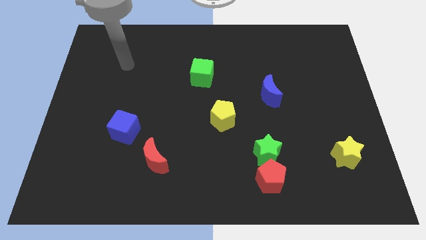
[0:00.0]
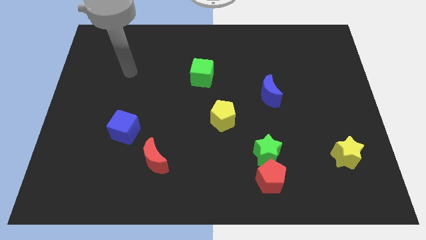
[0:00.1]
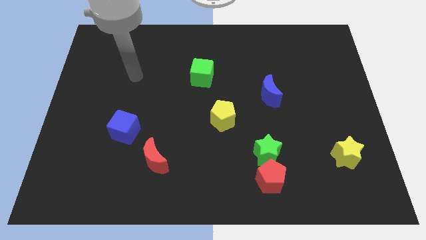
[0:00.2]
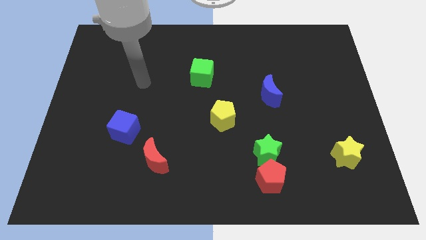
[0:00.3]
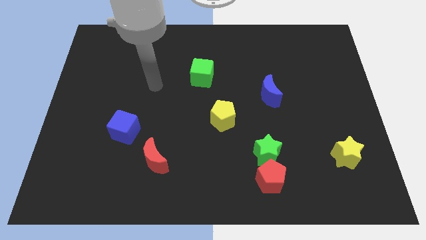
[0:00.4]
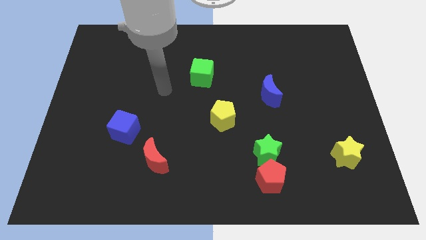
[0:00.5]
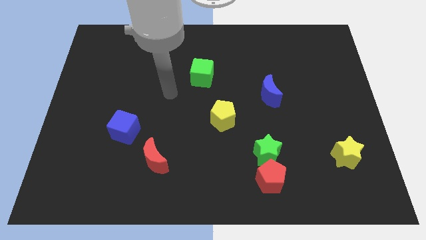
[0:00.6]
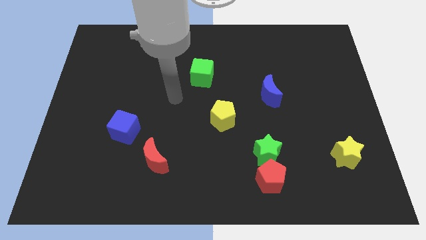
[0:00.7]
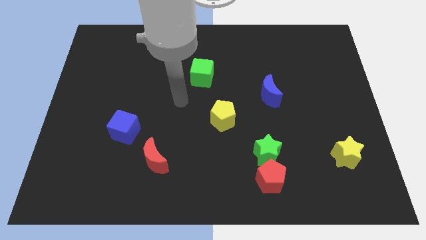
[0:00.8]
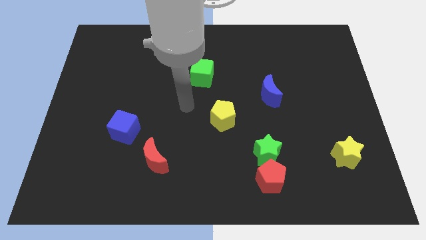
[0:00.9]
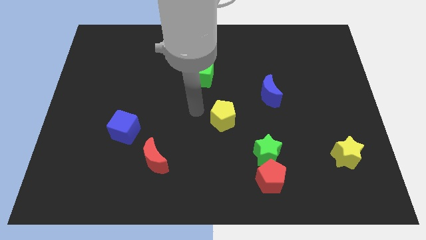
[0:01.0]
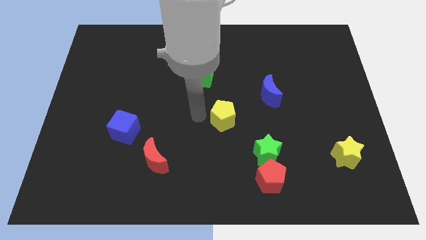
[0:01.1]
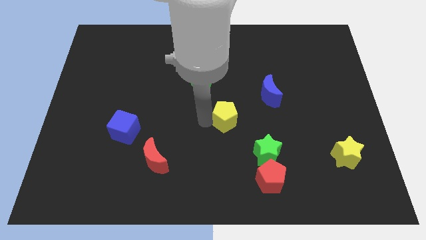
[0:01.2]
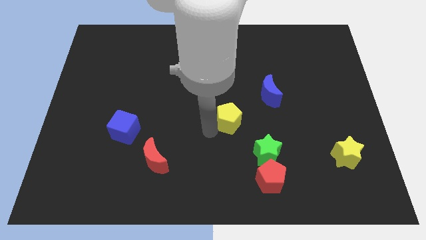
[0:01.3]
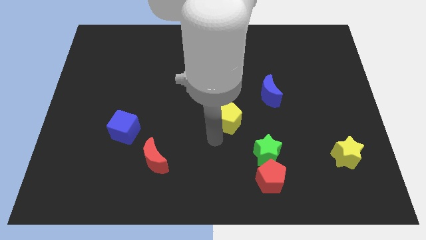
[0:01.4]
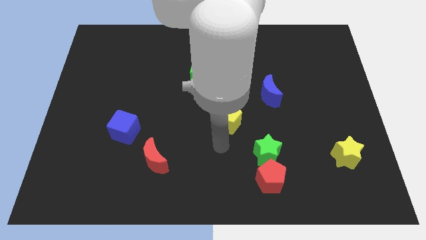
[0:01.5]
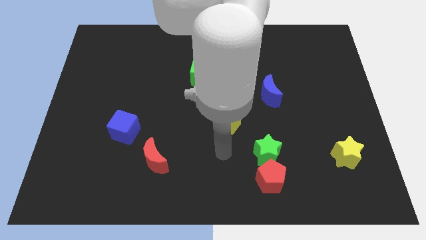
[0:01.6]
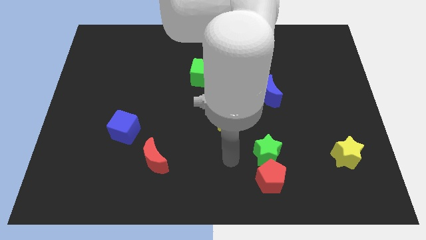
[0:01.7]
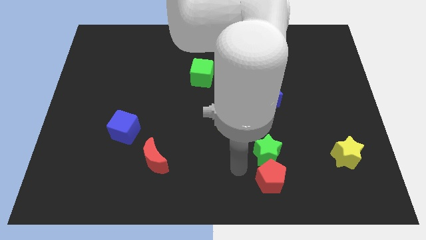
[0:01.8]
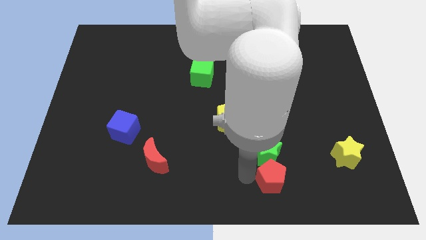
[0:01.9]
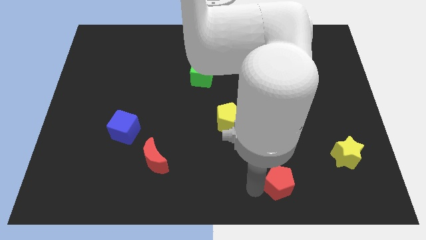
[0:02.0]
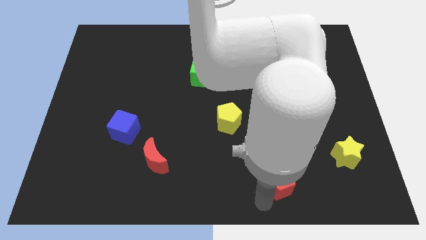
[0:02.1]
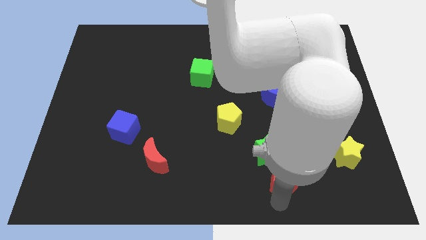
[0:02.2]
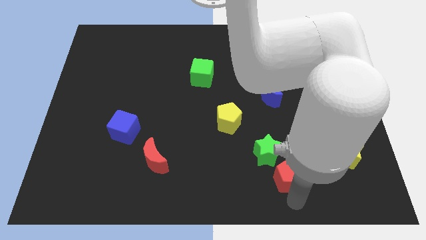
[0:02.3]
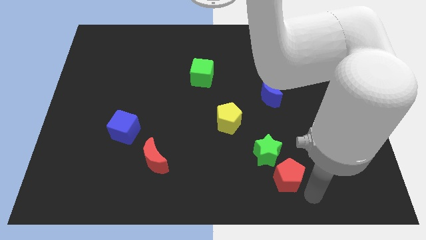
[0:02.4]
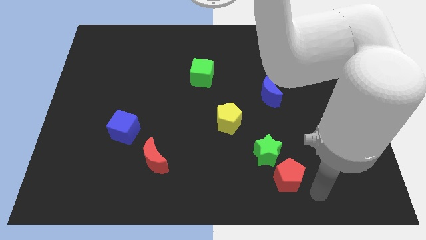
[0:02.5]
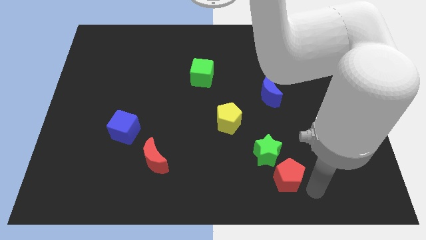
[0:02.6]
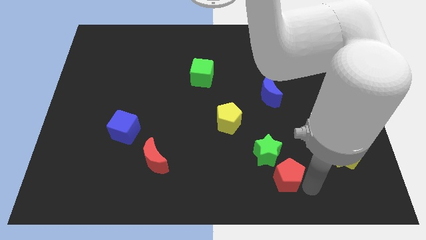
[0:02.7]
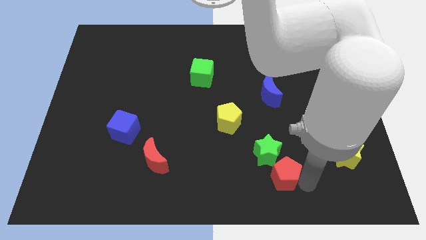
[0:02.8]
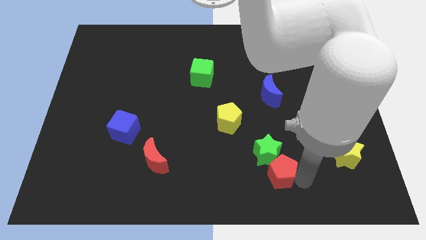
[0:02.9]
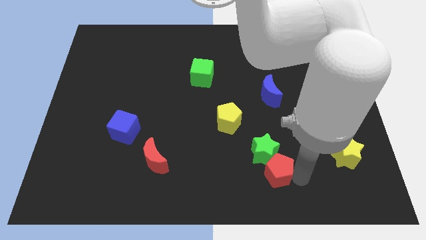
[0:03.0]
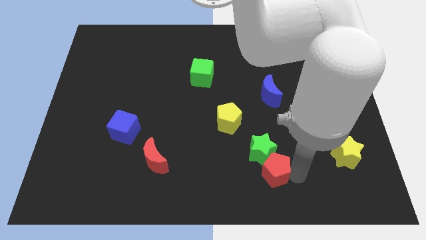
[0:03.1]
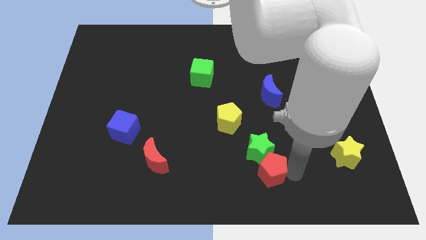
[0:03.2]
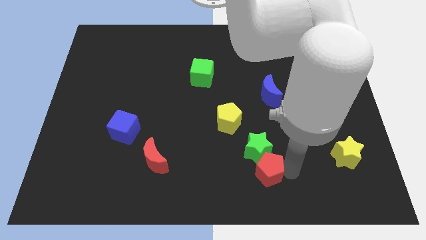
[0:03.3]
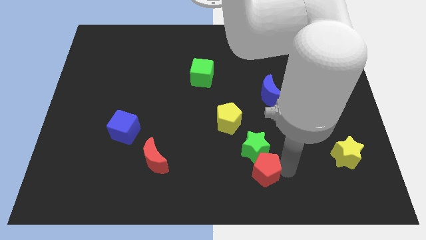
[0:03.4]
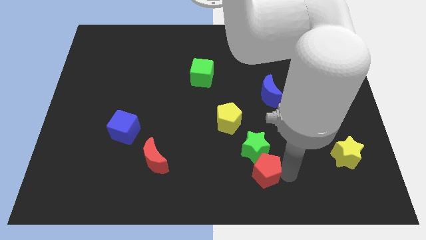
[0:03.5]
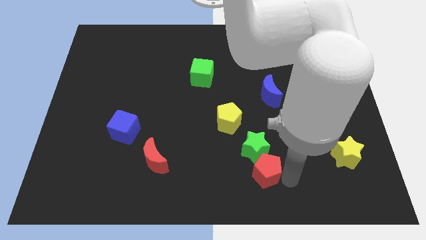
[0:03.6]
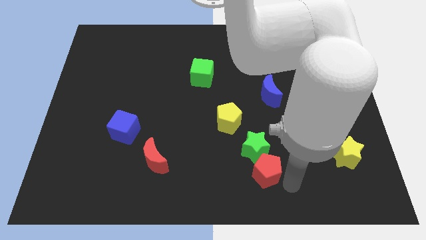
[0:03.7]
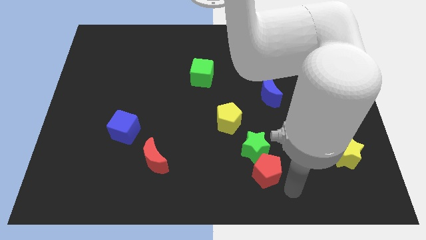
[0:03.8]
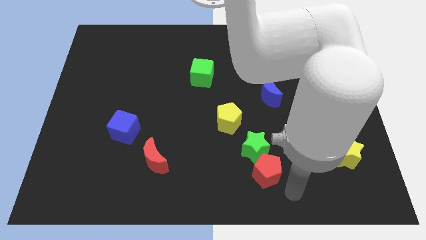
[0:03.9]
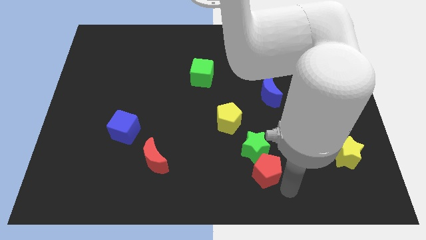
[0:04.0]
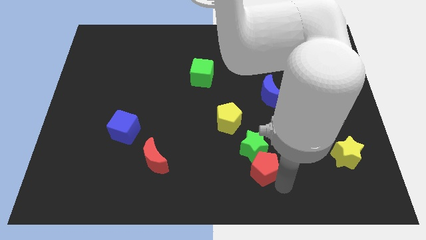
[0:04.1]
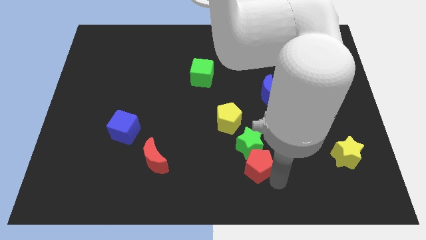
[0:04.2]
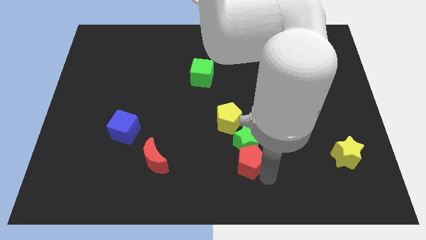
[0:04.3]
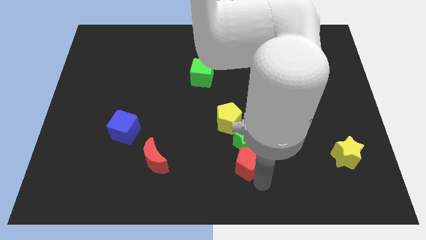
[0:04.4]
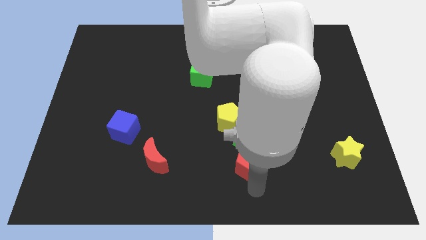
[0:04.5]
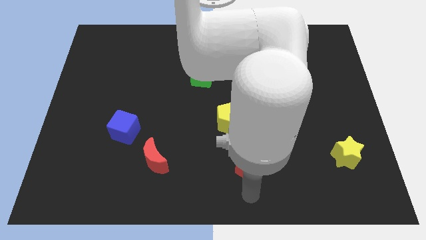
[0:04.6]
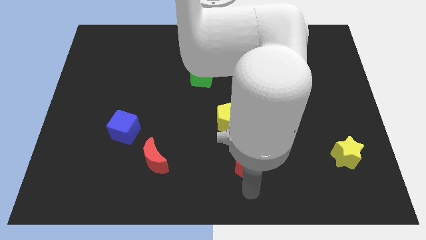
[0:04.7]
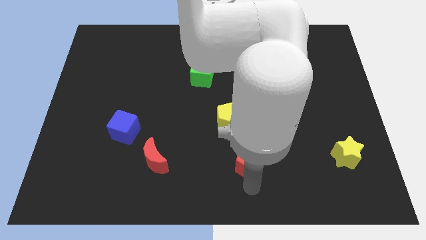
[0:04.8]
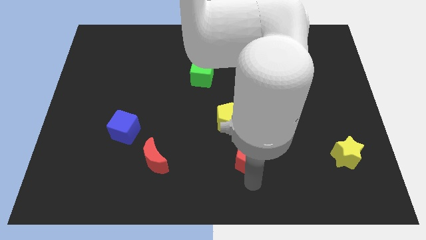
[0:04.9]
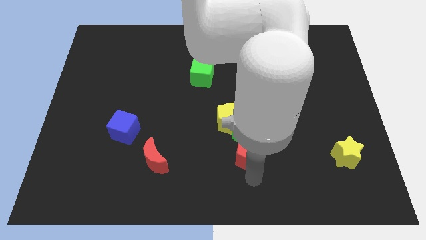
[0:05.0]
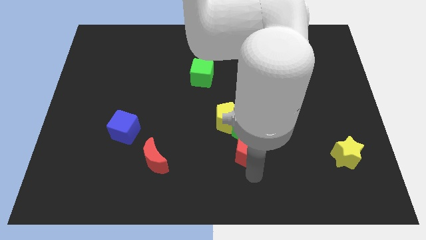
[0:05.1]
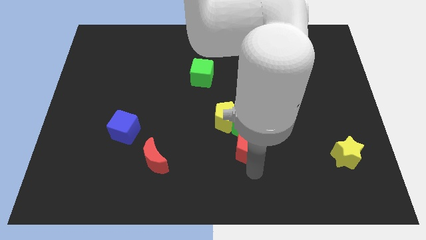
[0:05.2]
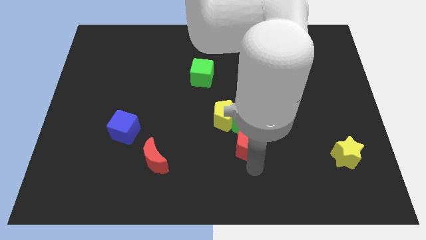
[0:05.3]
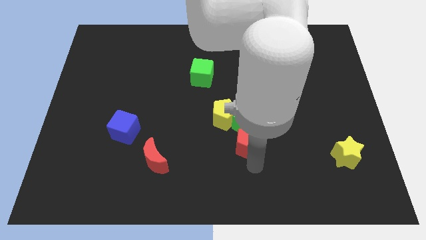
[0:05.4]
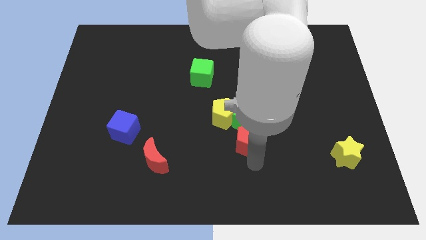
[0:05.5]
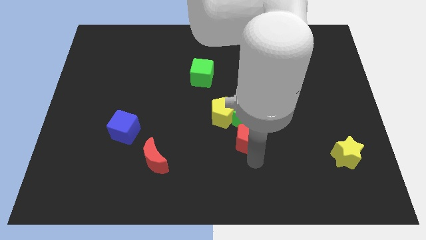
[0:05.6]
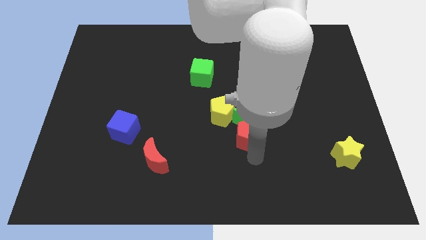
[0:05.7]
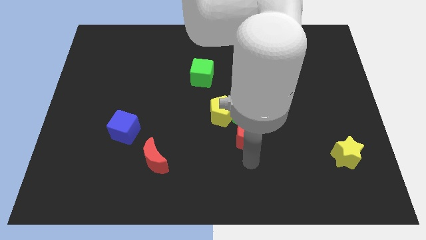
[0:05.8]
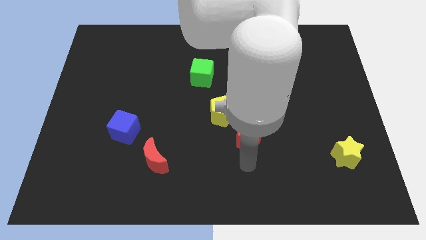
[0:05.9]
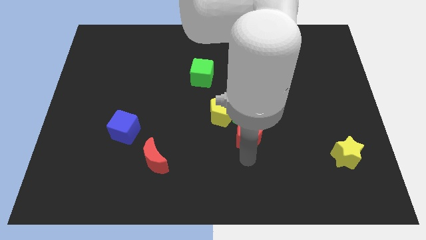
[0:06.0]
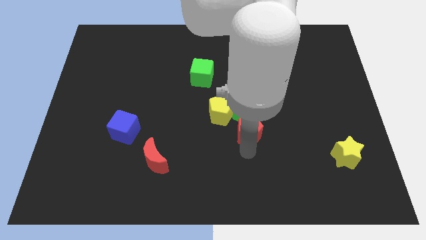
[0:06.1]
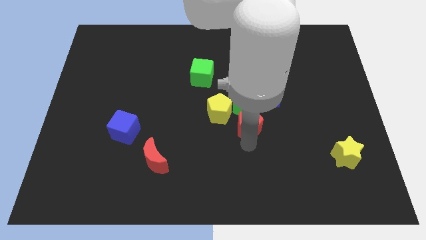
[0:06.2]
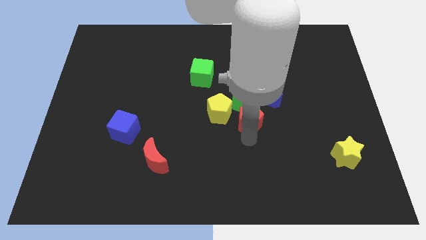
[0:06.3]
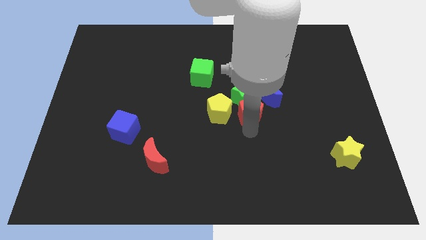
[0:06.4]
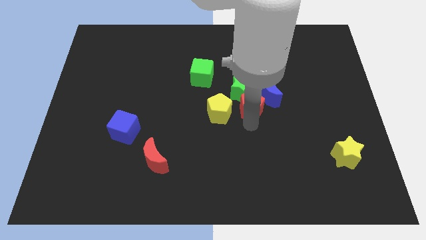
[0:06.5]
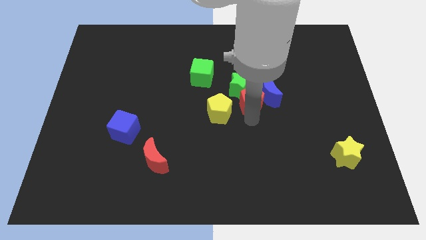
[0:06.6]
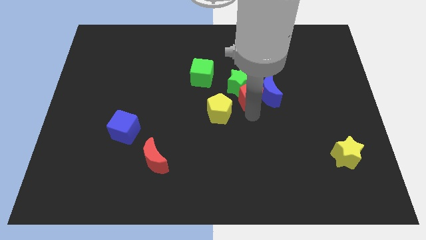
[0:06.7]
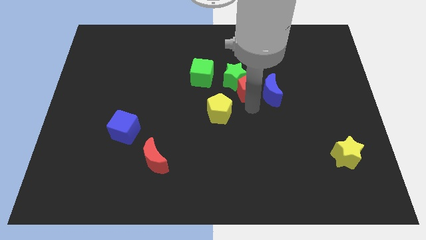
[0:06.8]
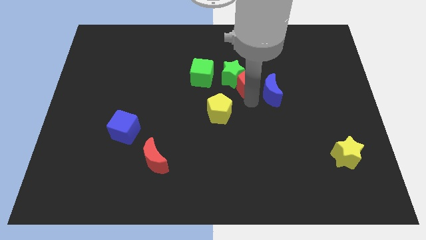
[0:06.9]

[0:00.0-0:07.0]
slide the red pentagon just right of the green cube
